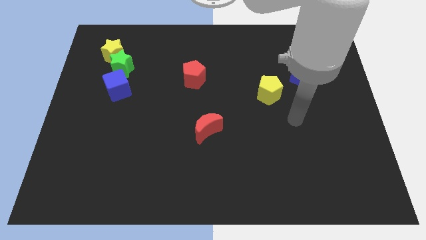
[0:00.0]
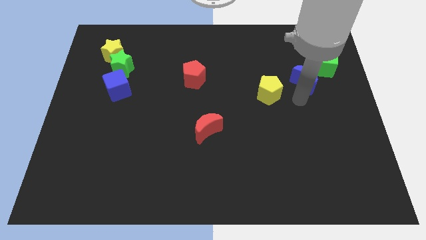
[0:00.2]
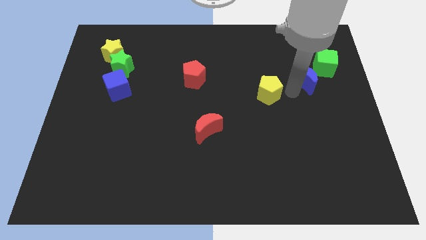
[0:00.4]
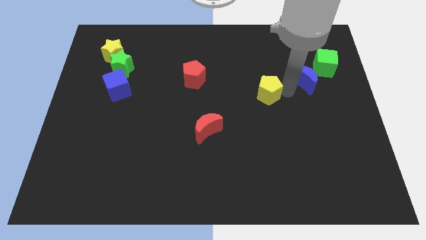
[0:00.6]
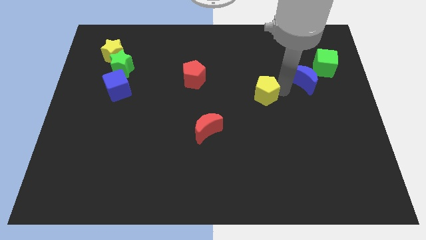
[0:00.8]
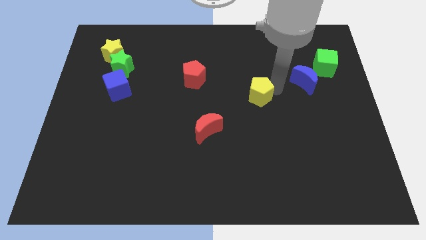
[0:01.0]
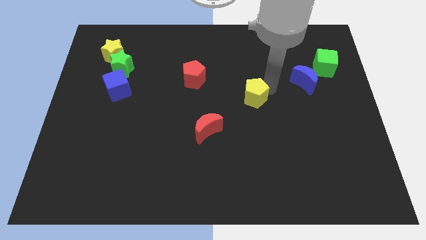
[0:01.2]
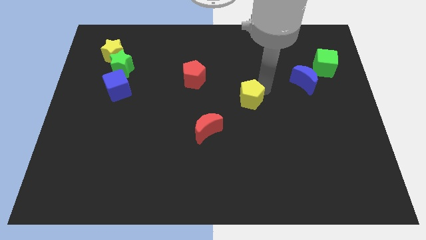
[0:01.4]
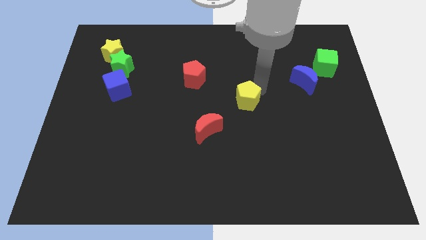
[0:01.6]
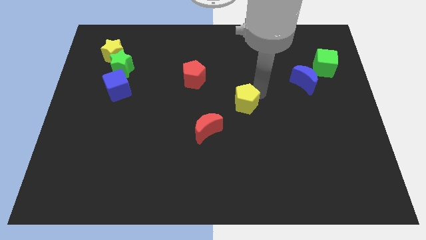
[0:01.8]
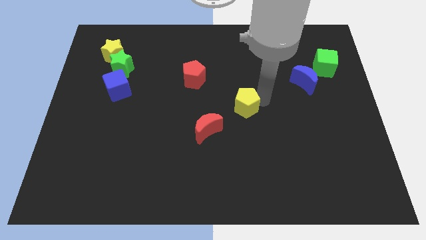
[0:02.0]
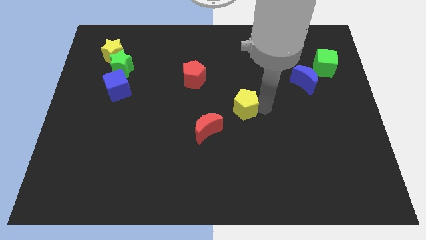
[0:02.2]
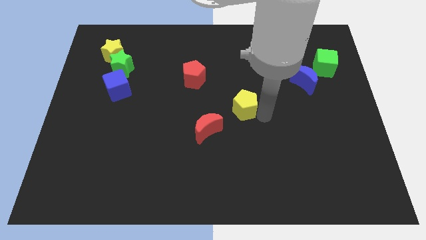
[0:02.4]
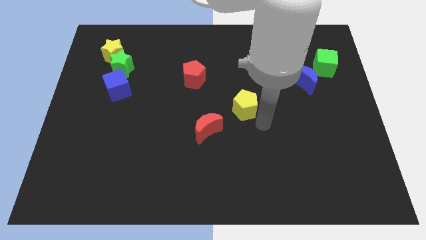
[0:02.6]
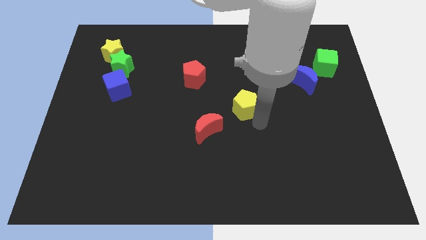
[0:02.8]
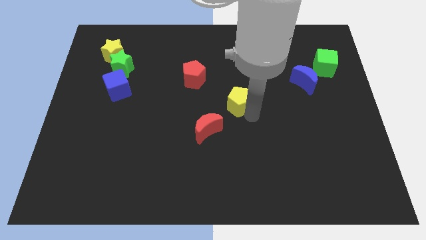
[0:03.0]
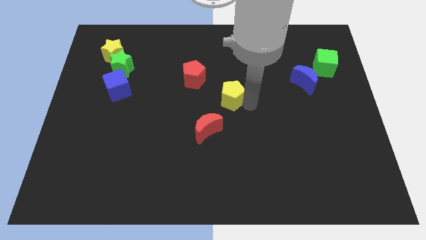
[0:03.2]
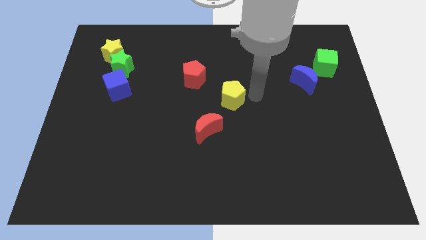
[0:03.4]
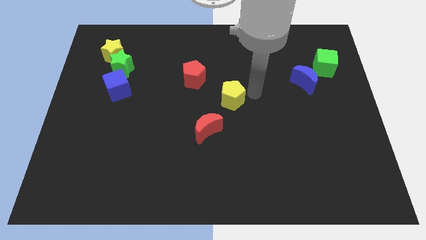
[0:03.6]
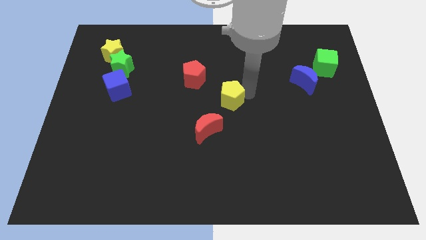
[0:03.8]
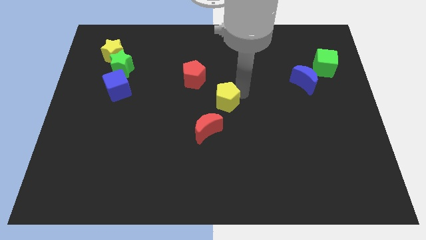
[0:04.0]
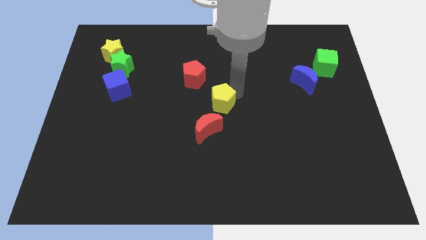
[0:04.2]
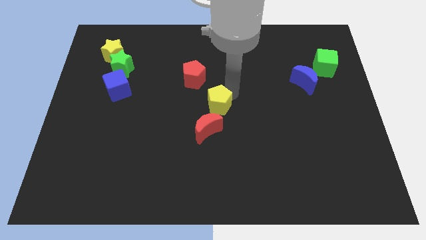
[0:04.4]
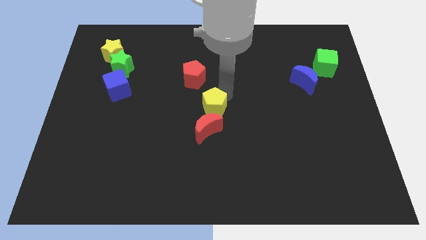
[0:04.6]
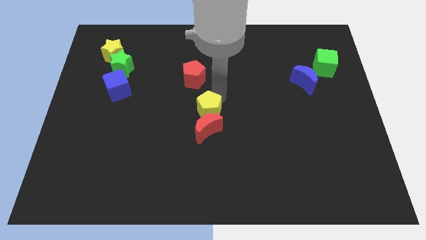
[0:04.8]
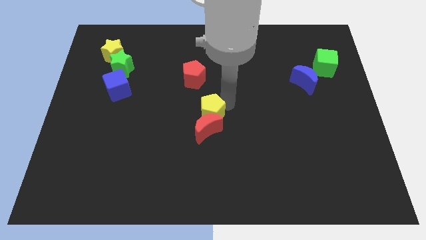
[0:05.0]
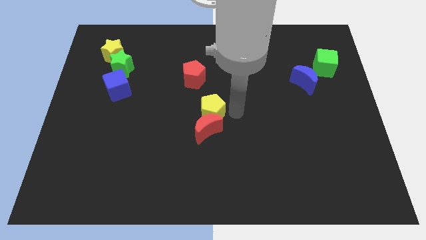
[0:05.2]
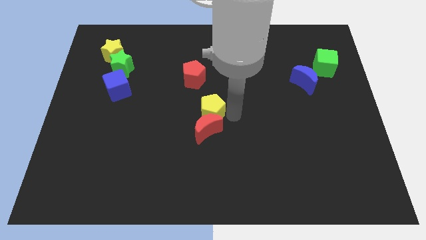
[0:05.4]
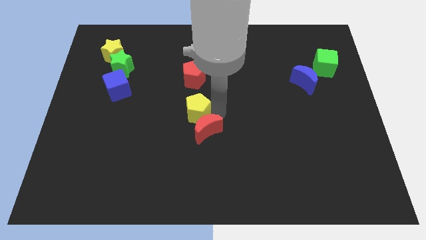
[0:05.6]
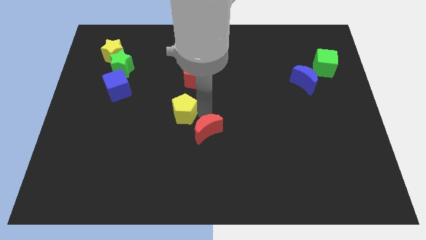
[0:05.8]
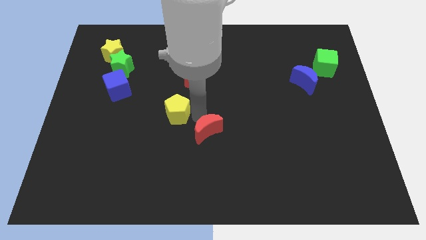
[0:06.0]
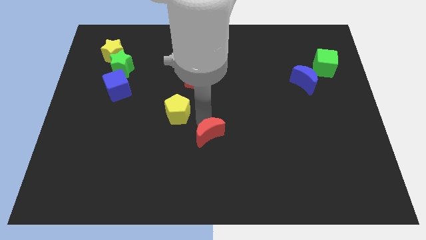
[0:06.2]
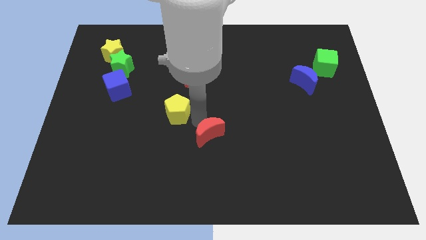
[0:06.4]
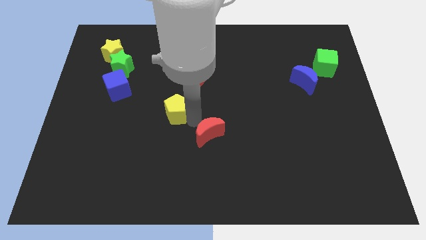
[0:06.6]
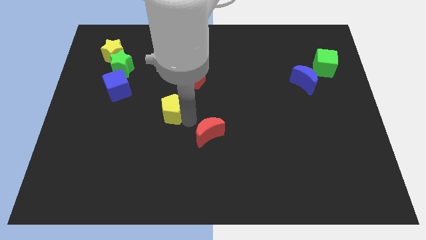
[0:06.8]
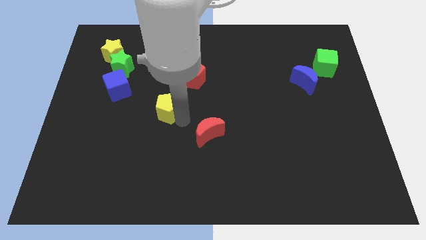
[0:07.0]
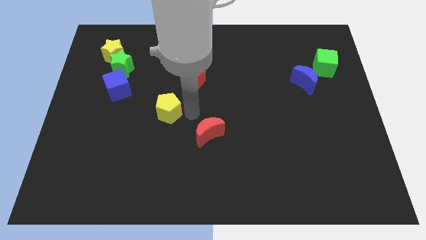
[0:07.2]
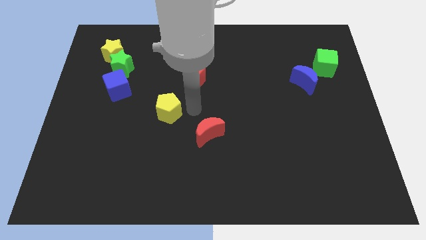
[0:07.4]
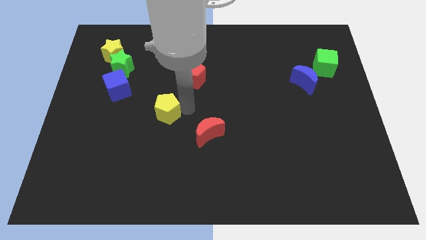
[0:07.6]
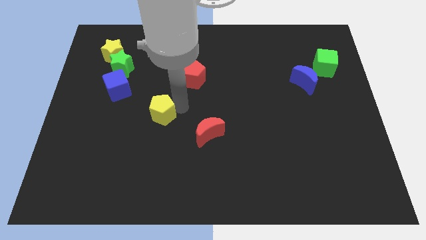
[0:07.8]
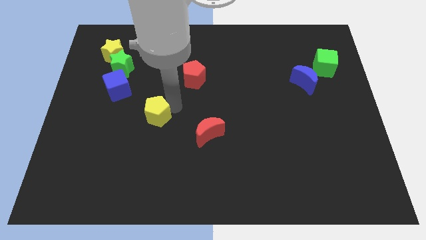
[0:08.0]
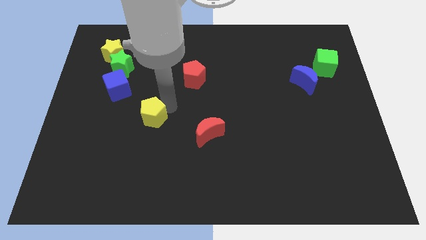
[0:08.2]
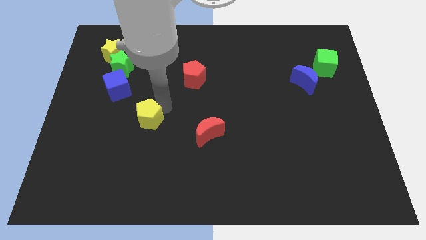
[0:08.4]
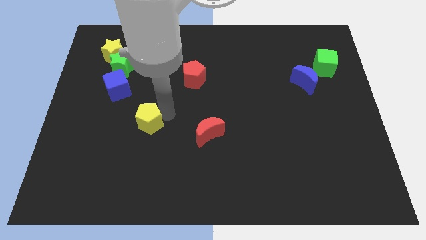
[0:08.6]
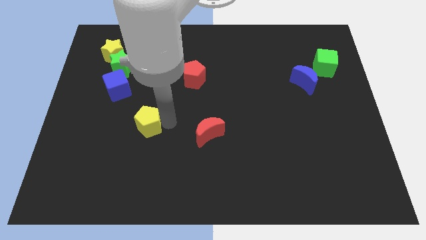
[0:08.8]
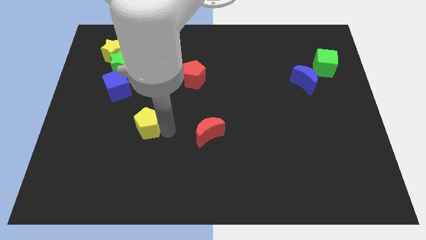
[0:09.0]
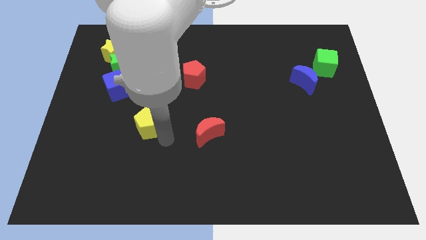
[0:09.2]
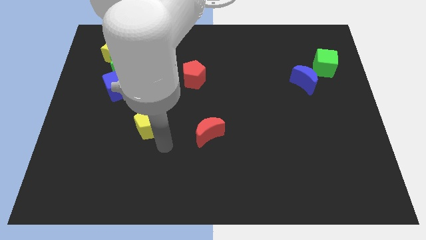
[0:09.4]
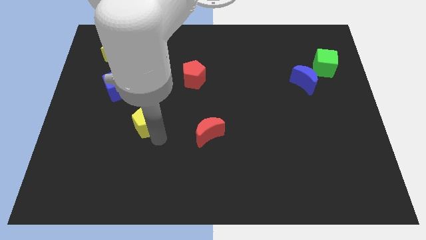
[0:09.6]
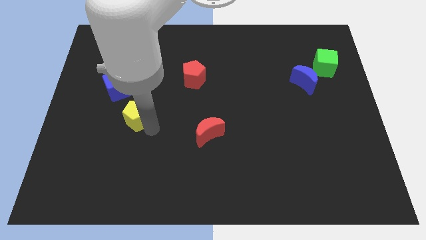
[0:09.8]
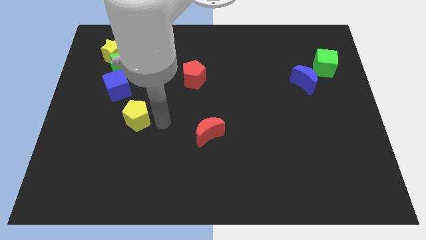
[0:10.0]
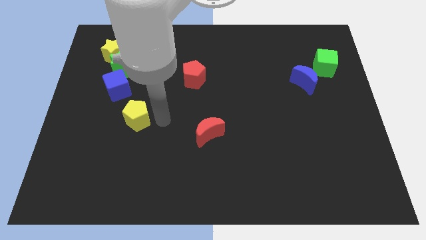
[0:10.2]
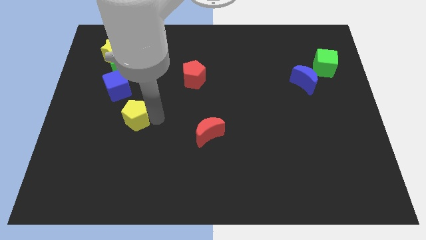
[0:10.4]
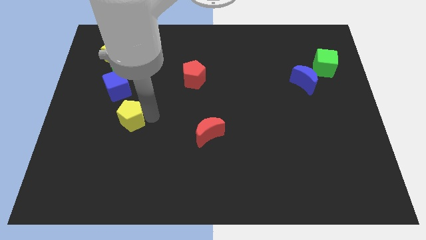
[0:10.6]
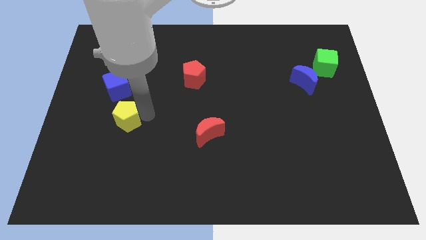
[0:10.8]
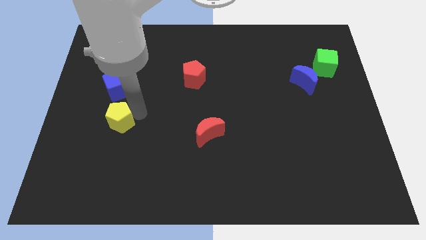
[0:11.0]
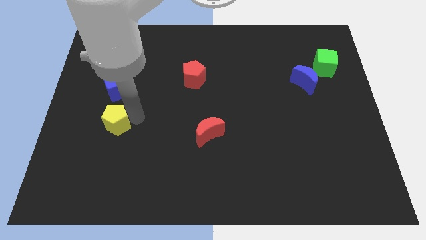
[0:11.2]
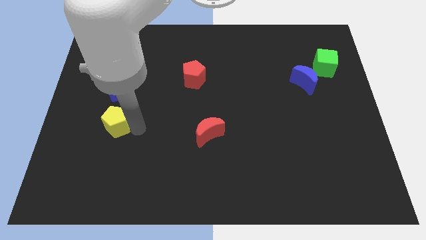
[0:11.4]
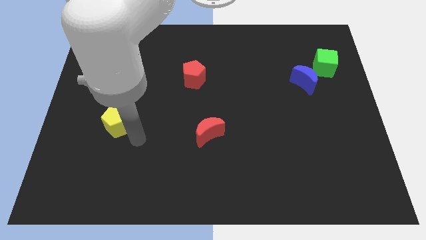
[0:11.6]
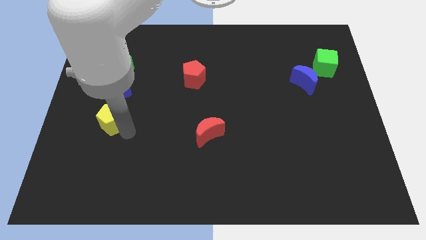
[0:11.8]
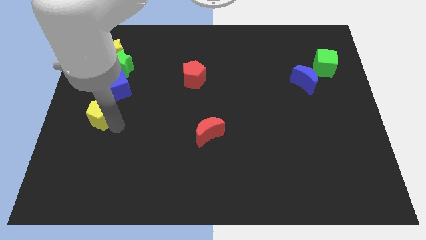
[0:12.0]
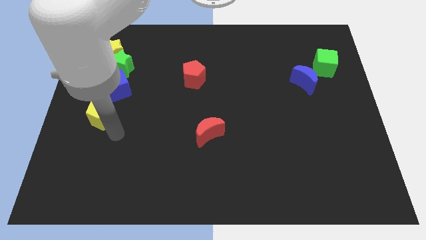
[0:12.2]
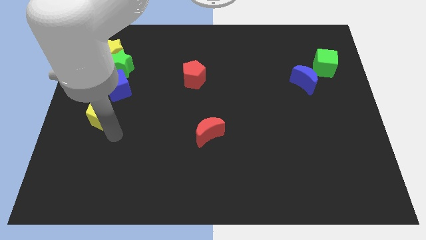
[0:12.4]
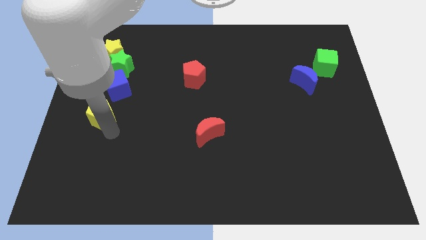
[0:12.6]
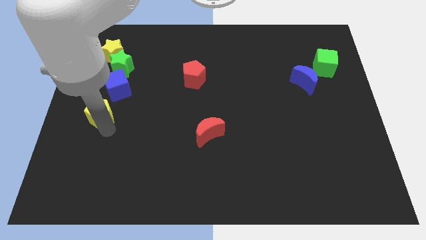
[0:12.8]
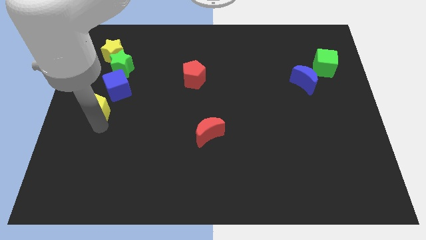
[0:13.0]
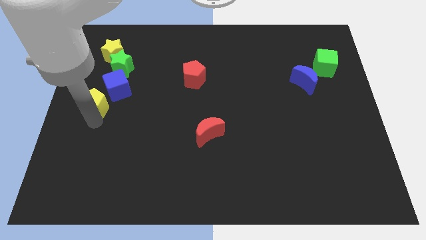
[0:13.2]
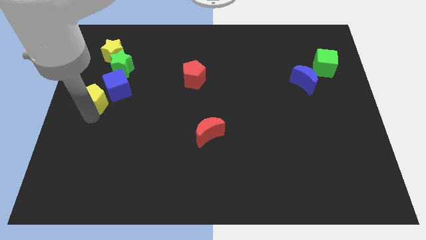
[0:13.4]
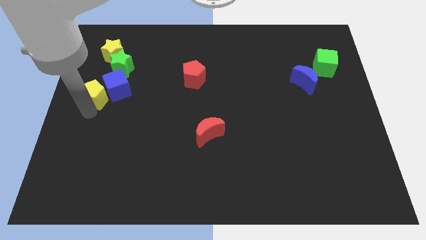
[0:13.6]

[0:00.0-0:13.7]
put the yellow pentagon to the bottom left side of the green star
